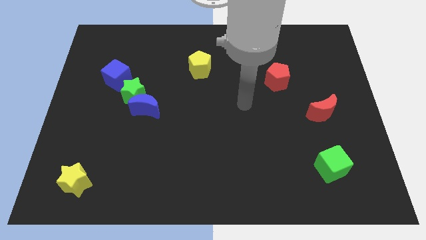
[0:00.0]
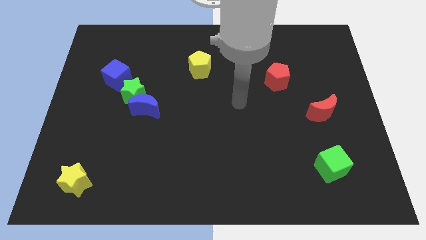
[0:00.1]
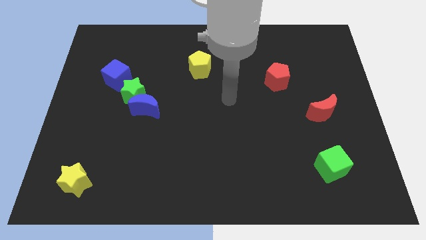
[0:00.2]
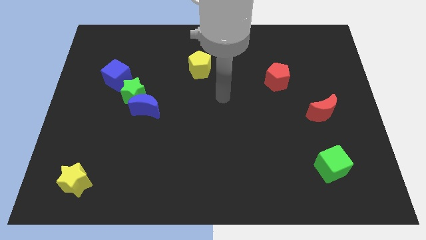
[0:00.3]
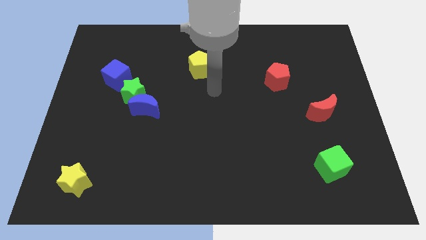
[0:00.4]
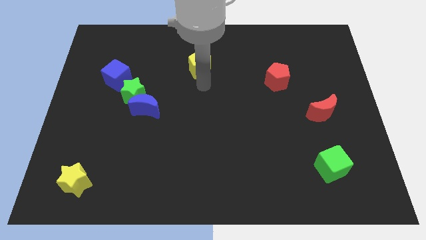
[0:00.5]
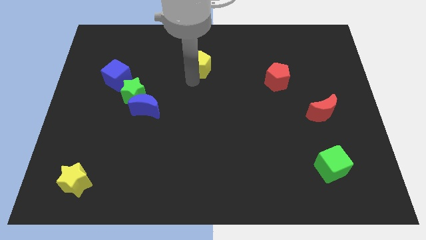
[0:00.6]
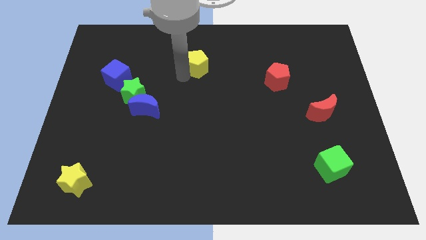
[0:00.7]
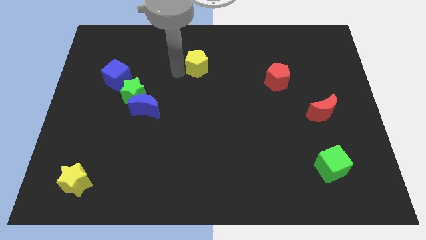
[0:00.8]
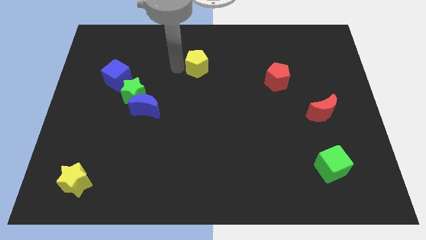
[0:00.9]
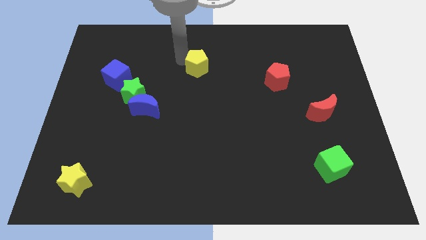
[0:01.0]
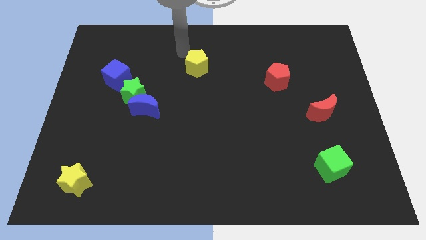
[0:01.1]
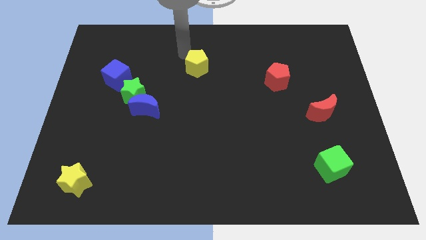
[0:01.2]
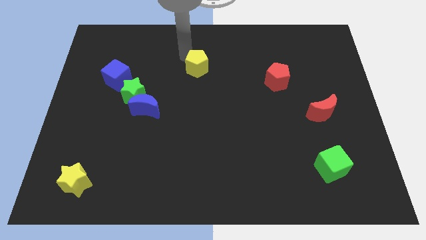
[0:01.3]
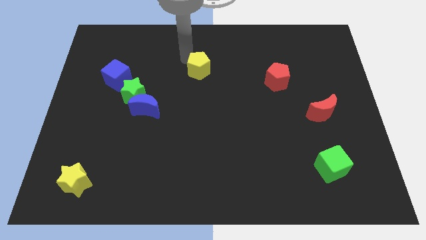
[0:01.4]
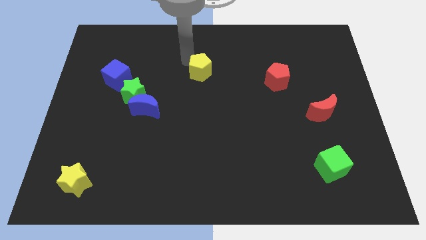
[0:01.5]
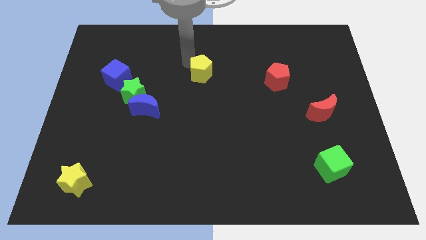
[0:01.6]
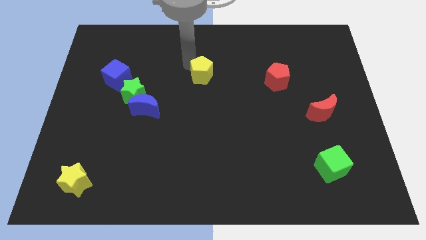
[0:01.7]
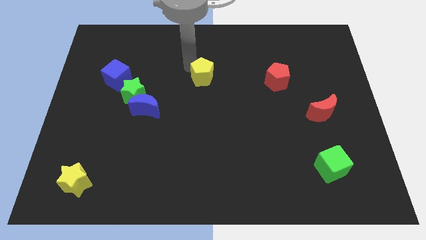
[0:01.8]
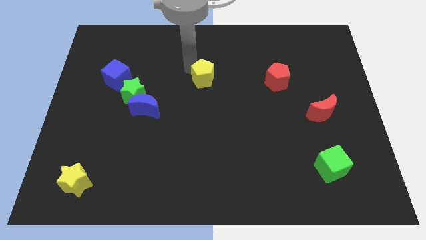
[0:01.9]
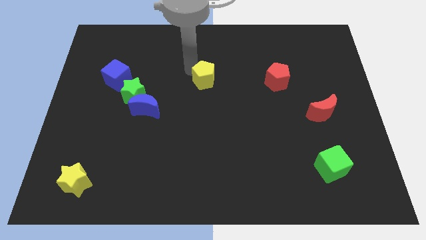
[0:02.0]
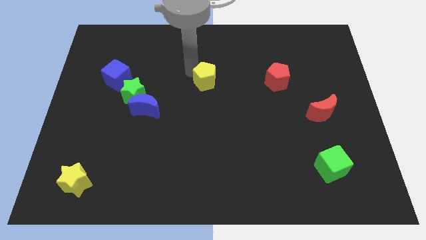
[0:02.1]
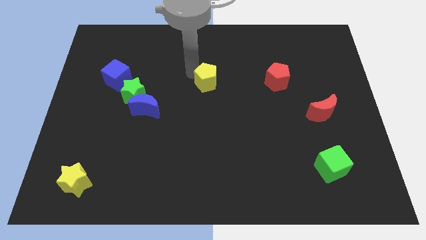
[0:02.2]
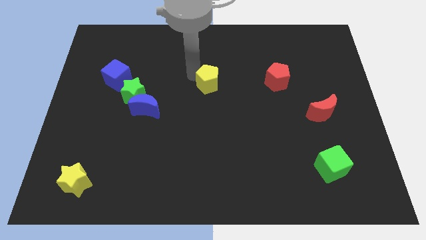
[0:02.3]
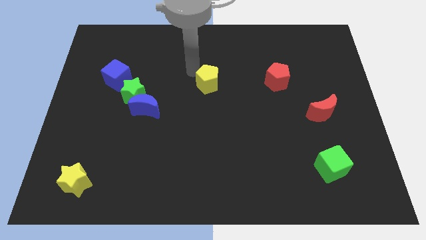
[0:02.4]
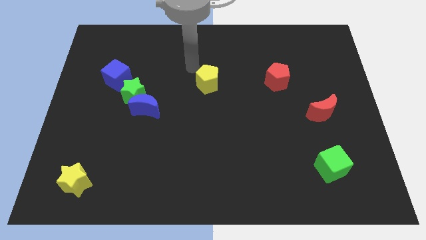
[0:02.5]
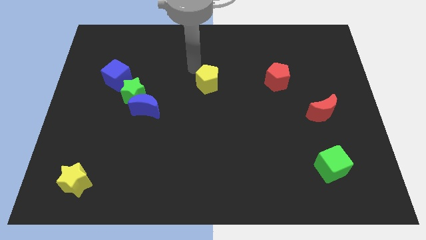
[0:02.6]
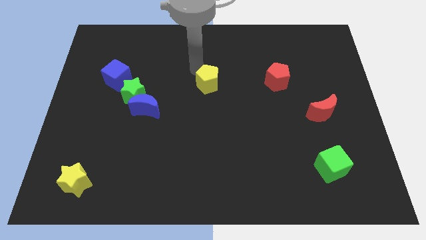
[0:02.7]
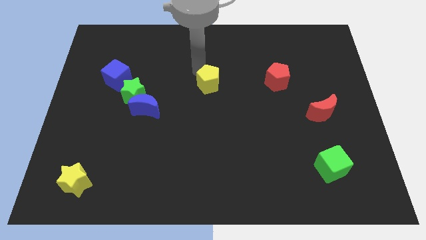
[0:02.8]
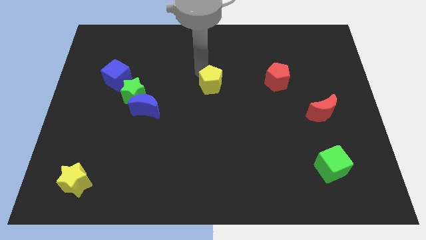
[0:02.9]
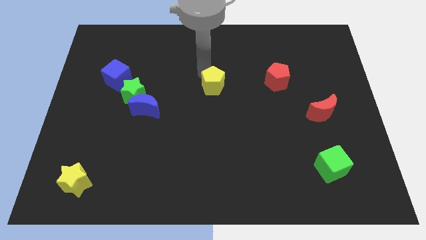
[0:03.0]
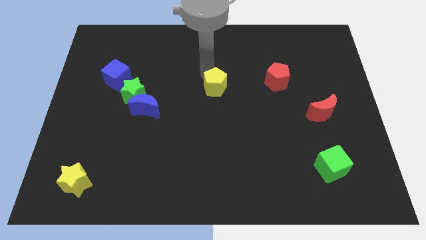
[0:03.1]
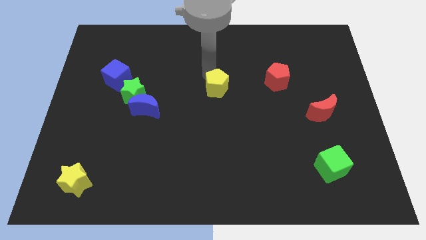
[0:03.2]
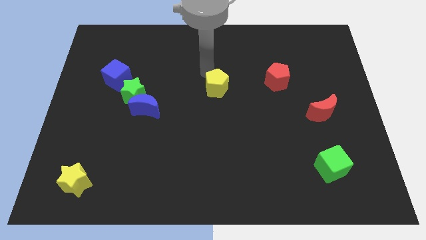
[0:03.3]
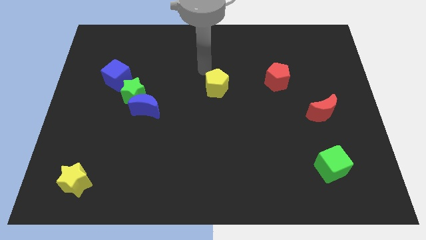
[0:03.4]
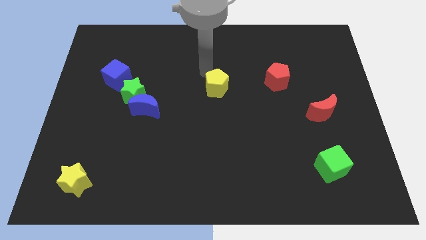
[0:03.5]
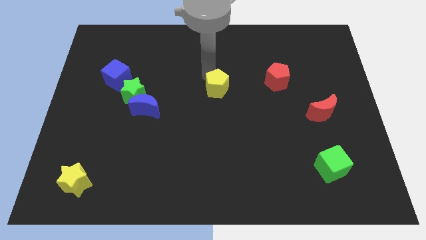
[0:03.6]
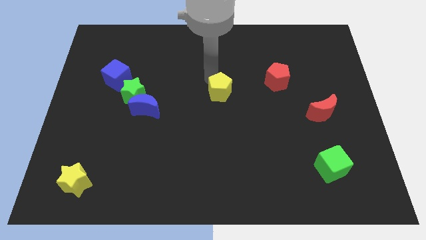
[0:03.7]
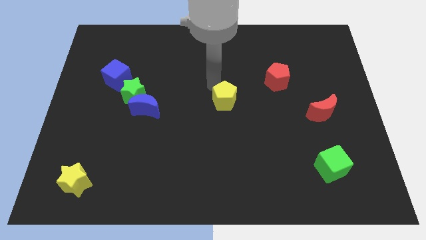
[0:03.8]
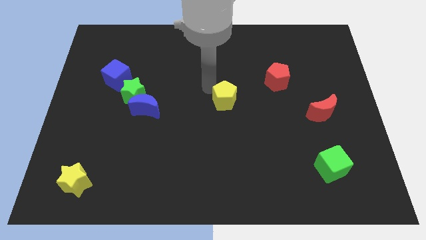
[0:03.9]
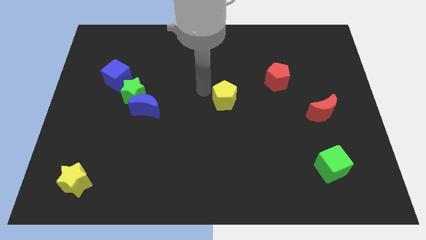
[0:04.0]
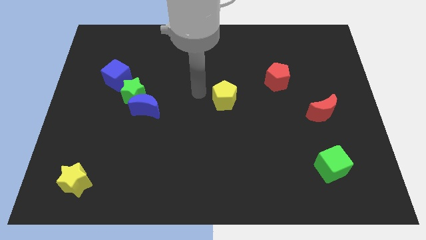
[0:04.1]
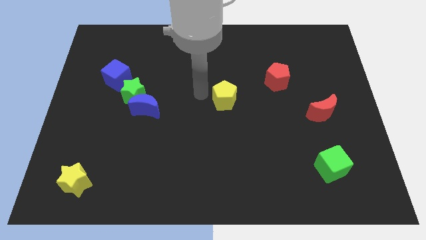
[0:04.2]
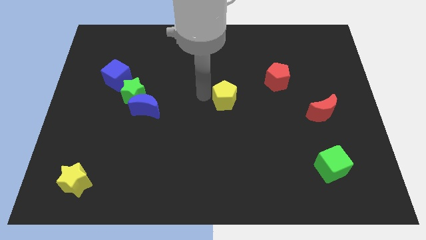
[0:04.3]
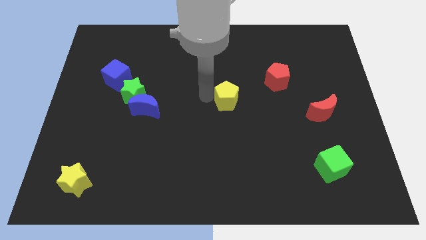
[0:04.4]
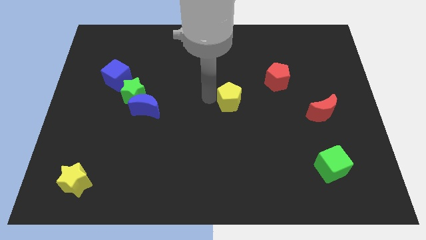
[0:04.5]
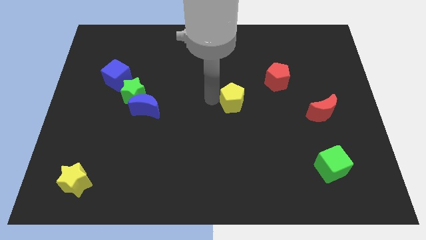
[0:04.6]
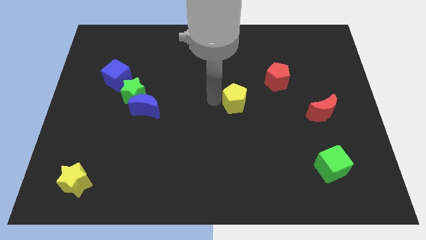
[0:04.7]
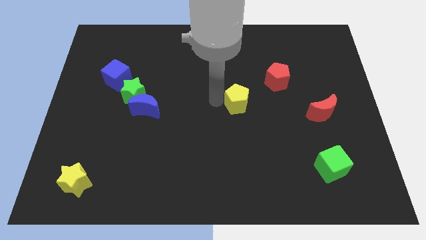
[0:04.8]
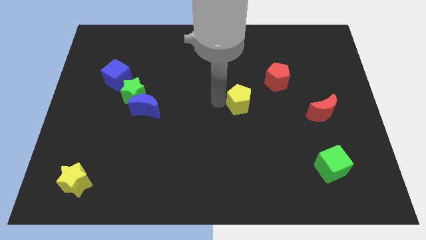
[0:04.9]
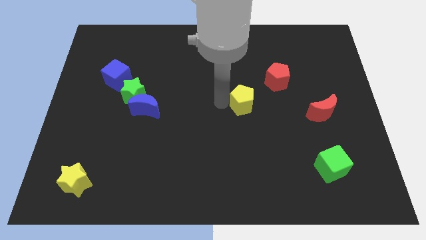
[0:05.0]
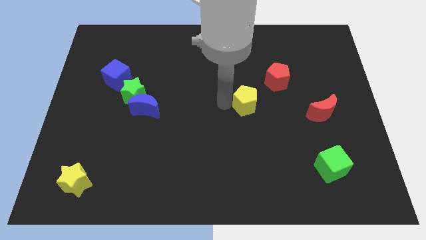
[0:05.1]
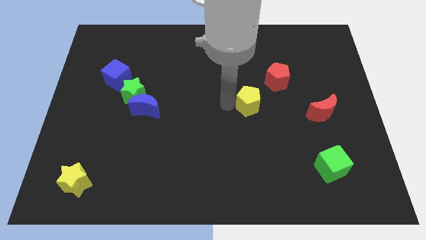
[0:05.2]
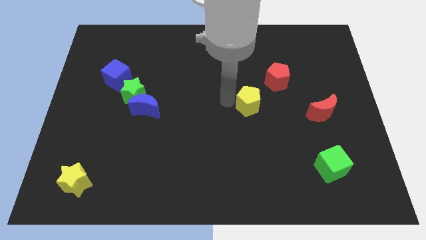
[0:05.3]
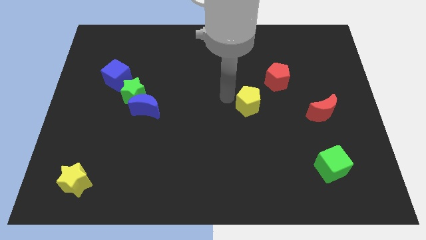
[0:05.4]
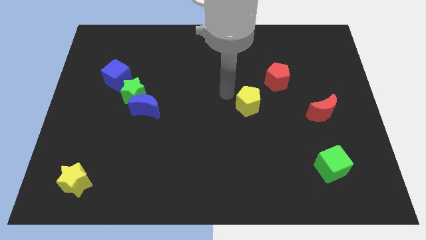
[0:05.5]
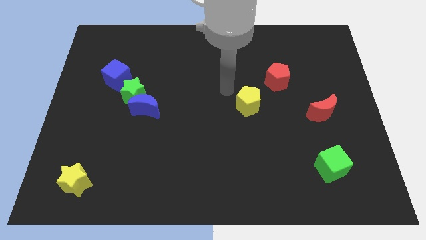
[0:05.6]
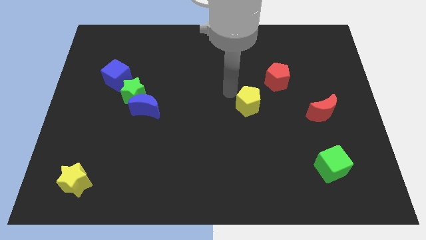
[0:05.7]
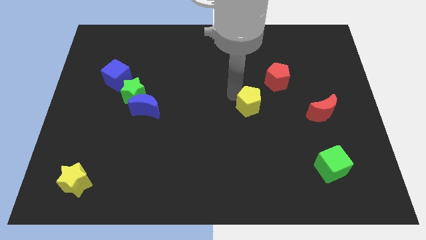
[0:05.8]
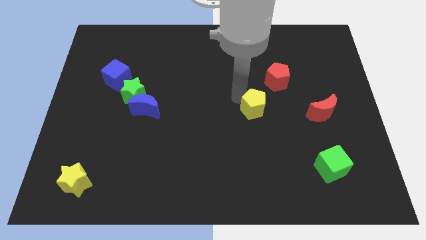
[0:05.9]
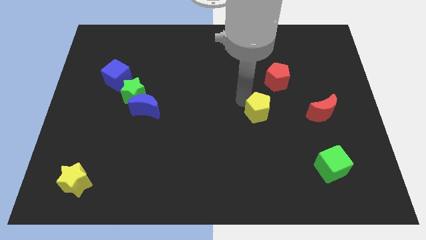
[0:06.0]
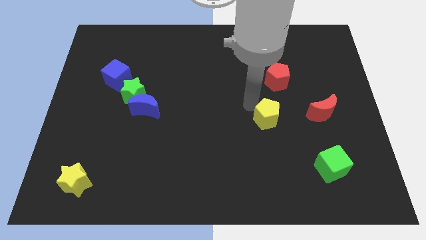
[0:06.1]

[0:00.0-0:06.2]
slide the yellow pentagon downwards and to the right

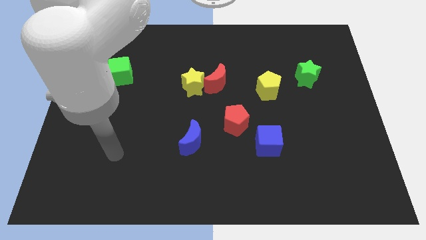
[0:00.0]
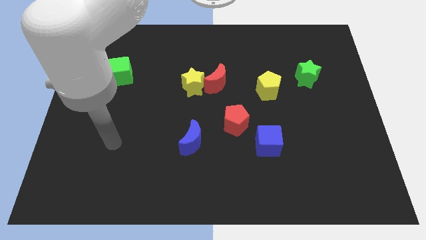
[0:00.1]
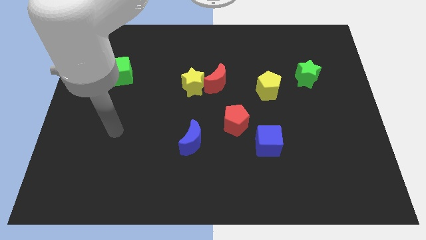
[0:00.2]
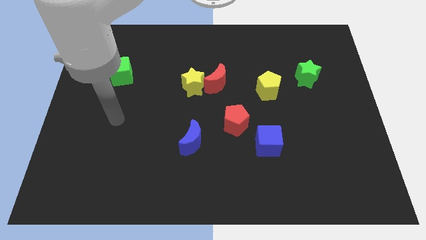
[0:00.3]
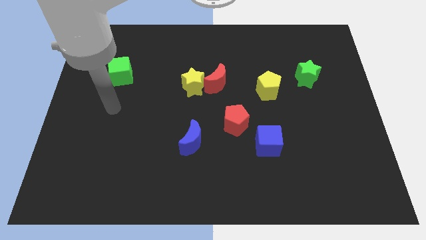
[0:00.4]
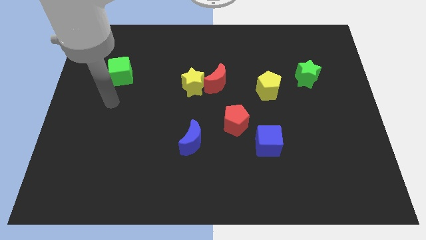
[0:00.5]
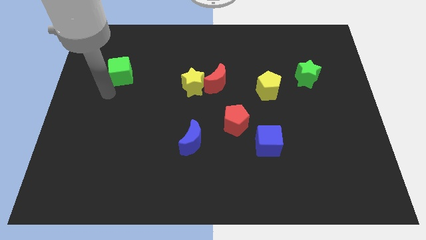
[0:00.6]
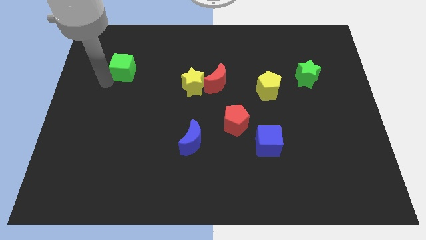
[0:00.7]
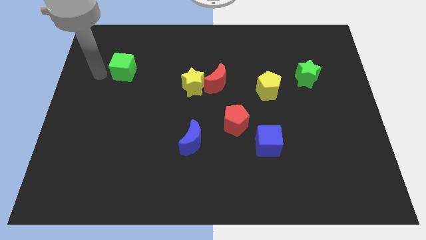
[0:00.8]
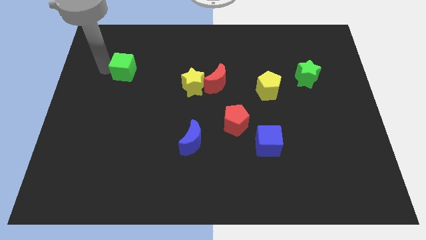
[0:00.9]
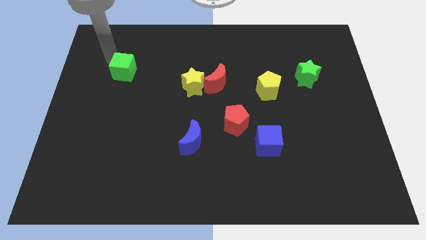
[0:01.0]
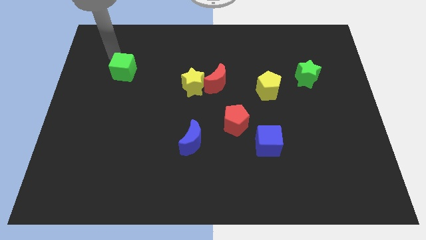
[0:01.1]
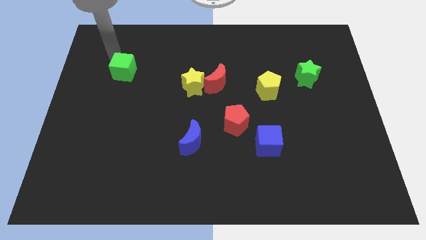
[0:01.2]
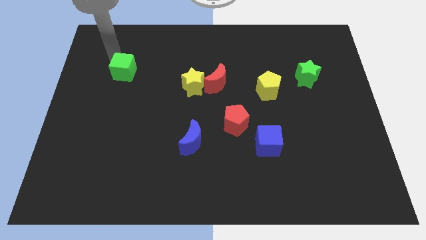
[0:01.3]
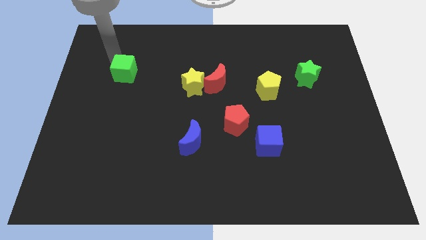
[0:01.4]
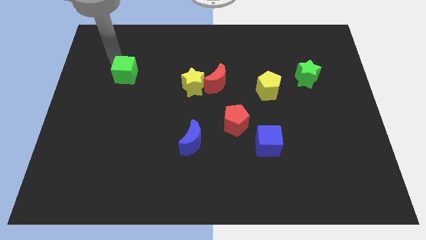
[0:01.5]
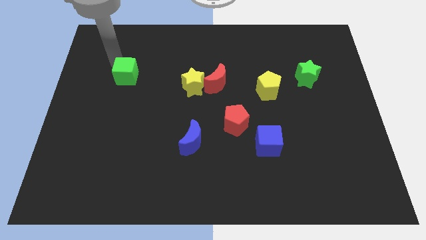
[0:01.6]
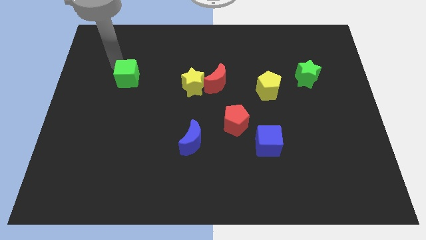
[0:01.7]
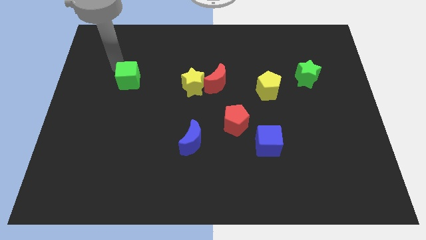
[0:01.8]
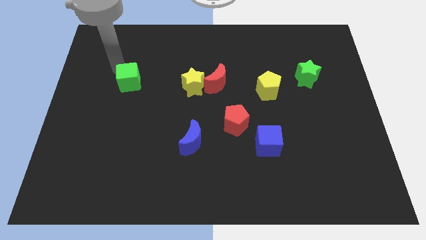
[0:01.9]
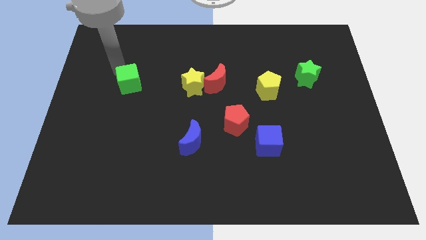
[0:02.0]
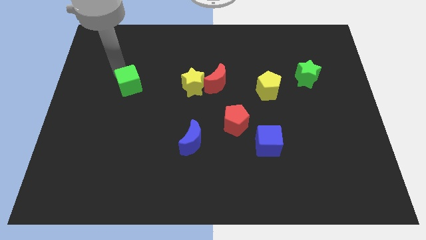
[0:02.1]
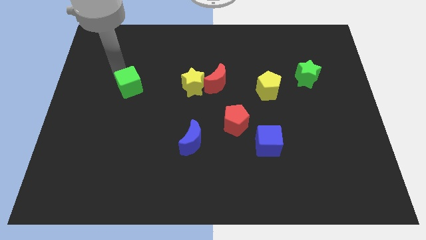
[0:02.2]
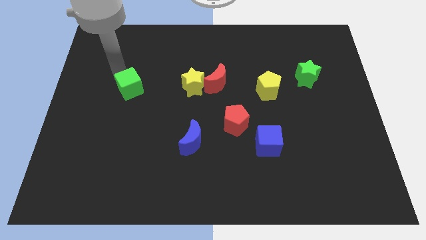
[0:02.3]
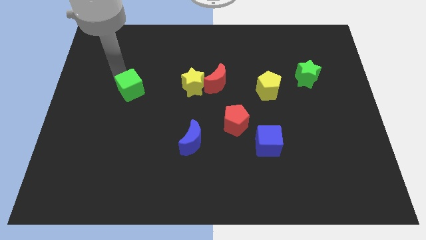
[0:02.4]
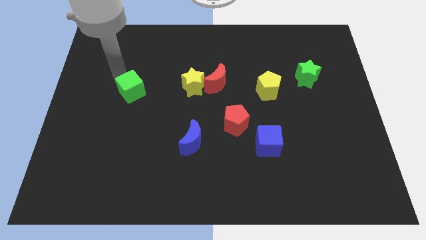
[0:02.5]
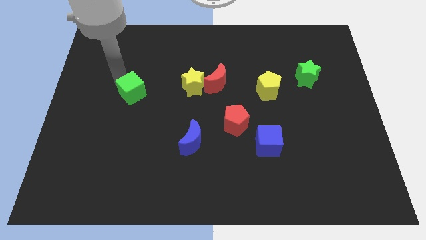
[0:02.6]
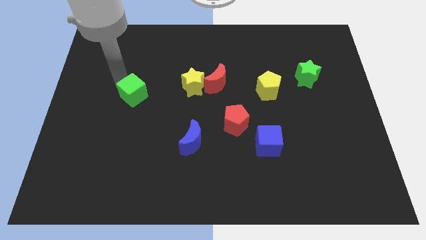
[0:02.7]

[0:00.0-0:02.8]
slightly slide the green cube downwards and to the right diagonally
